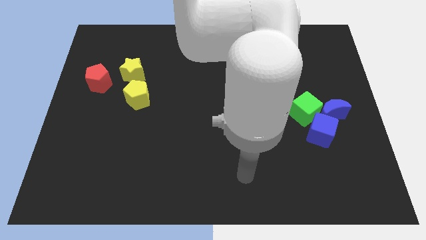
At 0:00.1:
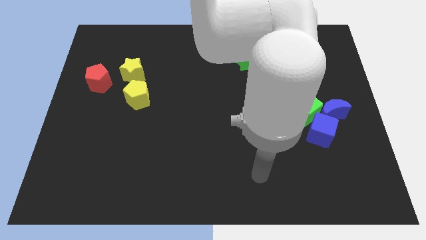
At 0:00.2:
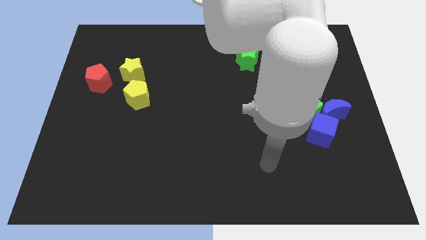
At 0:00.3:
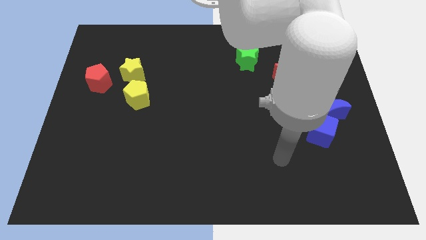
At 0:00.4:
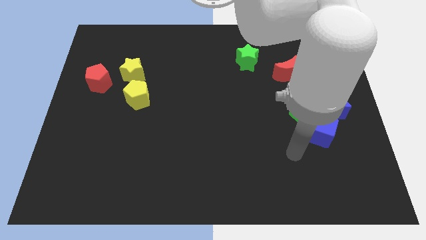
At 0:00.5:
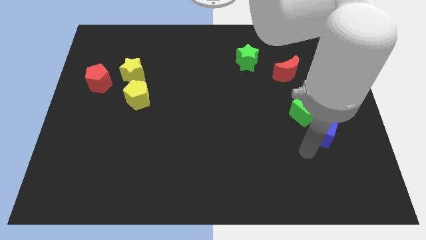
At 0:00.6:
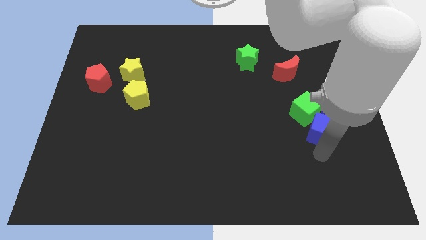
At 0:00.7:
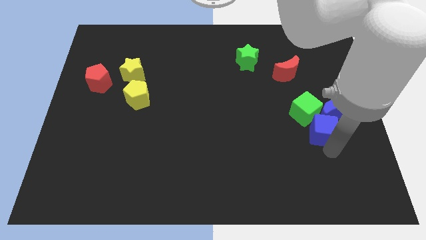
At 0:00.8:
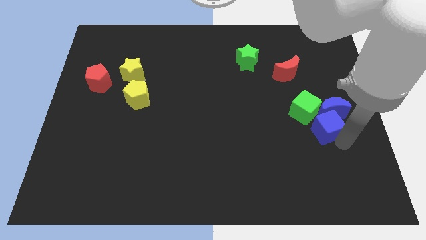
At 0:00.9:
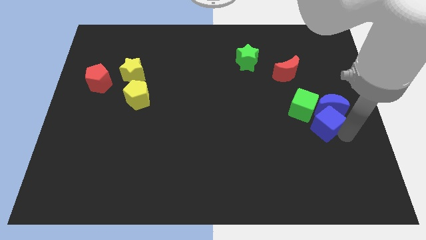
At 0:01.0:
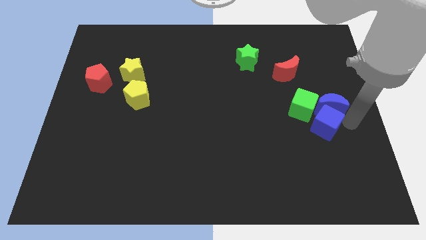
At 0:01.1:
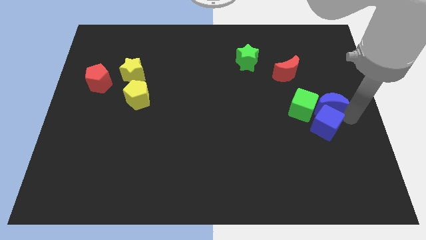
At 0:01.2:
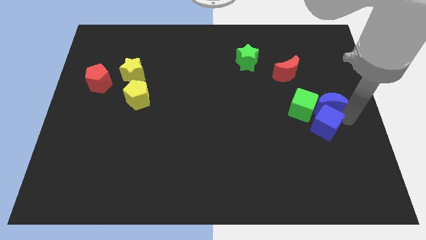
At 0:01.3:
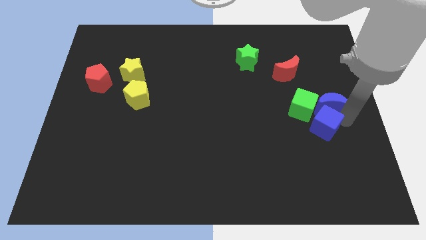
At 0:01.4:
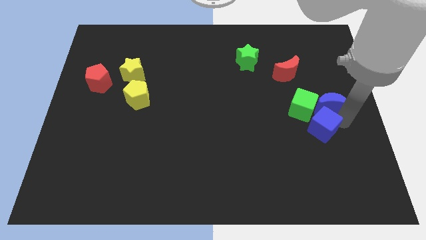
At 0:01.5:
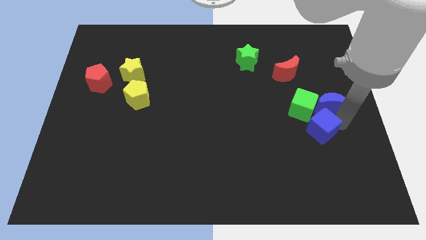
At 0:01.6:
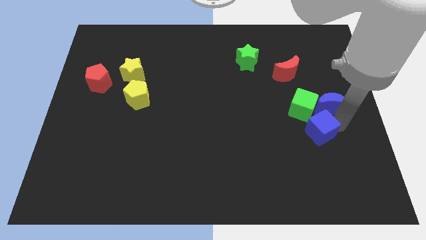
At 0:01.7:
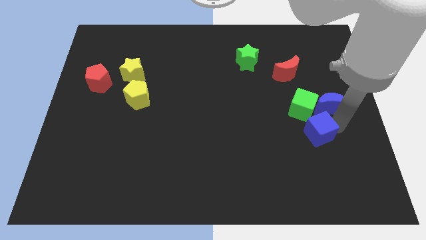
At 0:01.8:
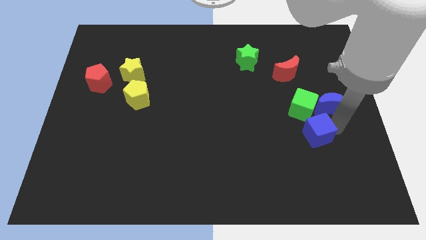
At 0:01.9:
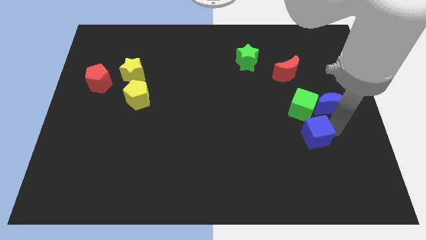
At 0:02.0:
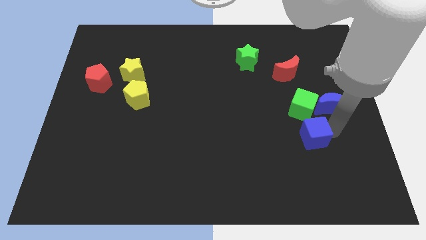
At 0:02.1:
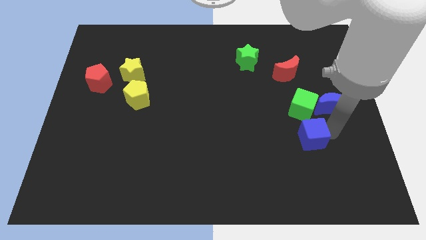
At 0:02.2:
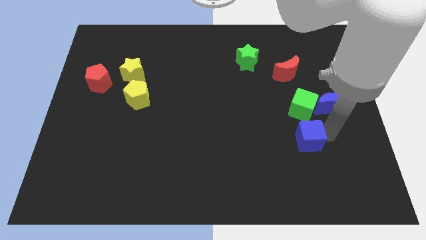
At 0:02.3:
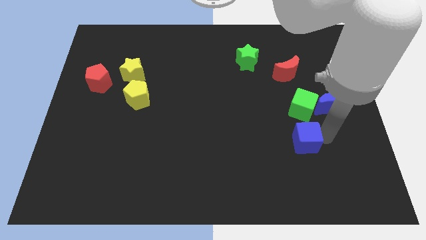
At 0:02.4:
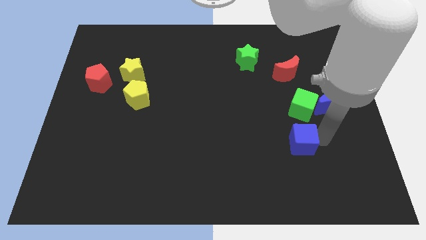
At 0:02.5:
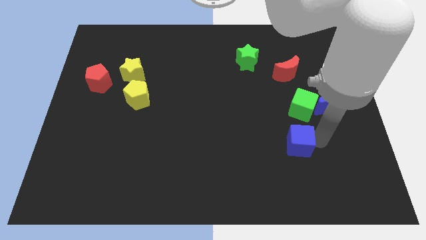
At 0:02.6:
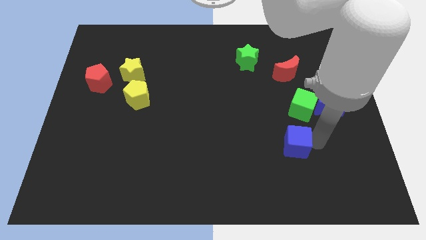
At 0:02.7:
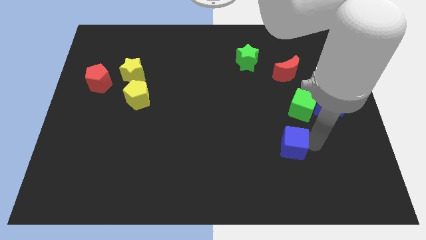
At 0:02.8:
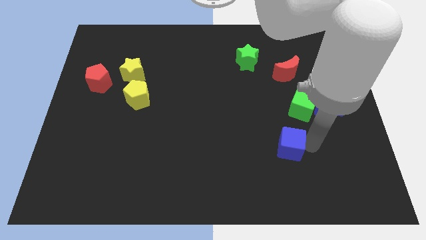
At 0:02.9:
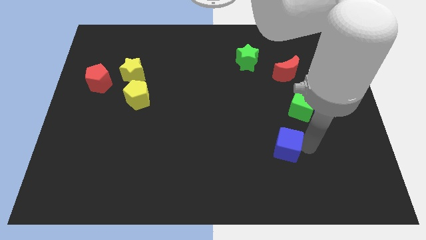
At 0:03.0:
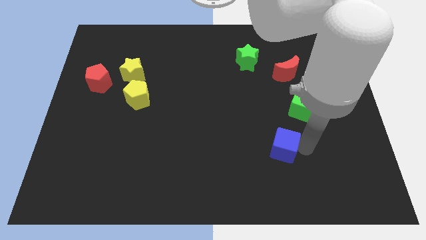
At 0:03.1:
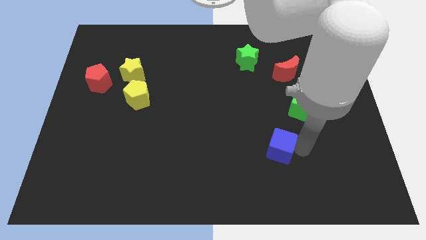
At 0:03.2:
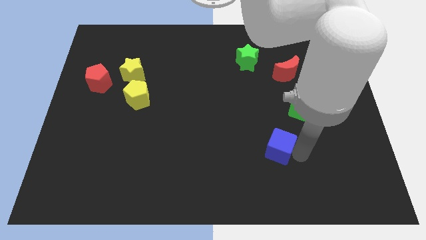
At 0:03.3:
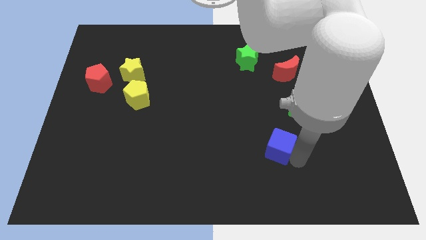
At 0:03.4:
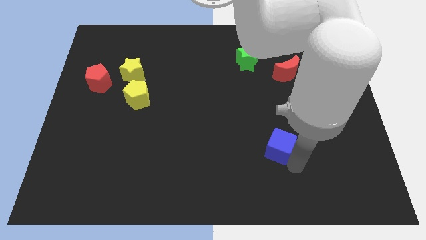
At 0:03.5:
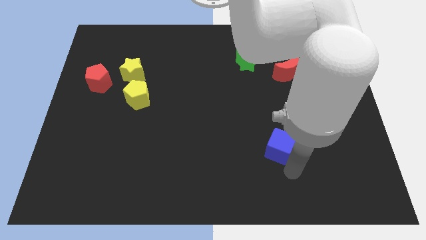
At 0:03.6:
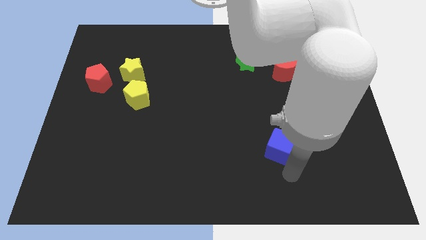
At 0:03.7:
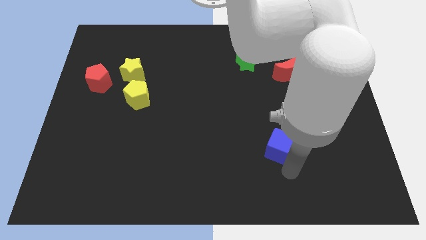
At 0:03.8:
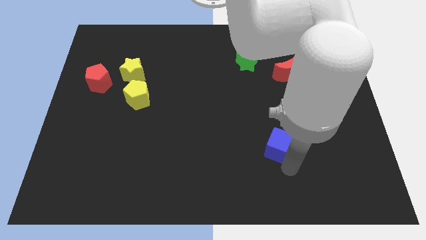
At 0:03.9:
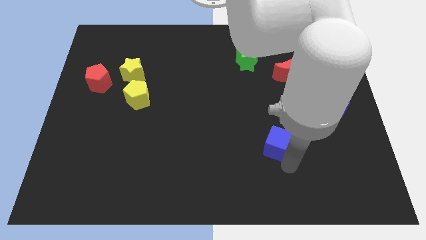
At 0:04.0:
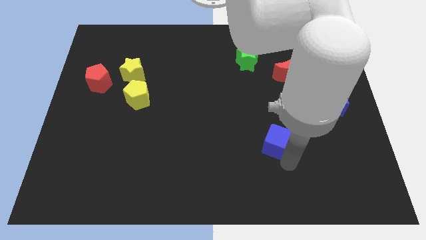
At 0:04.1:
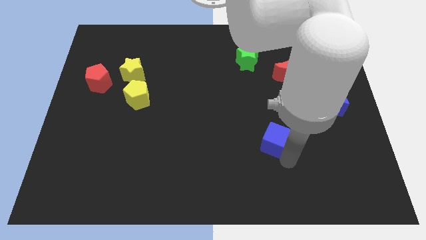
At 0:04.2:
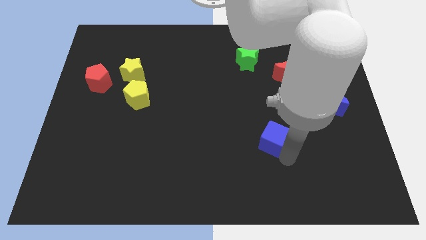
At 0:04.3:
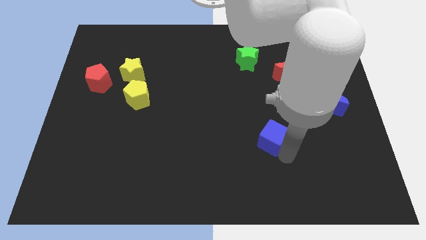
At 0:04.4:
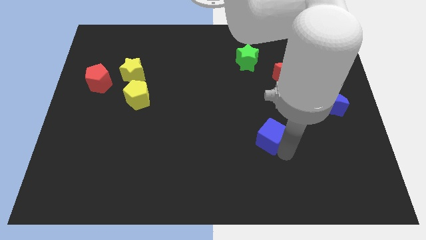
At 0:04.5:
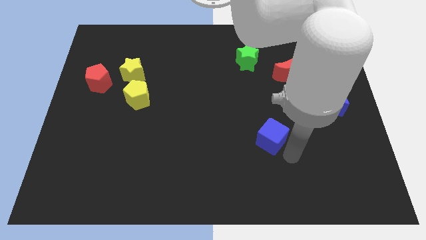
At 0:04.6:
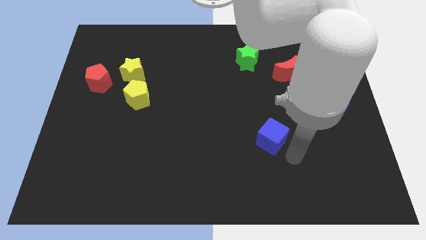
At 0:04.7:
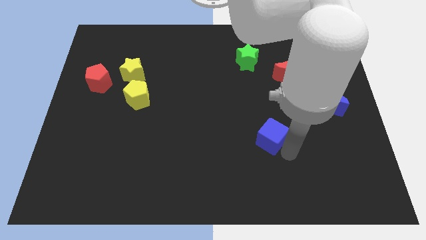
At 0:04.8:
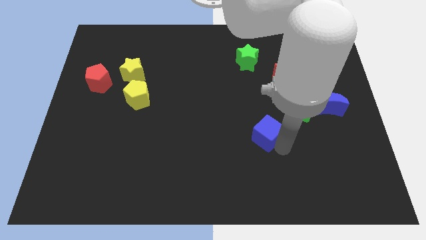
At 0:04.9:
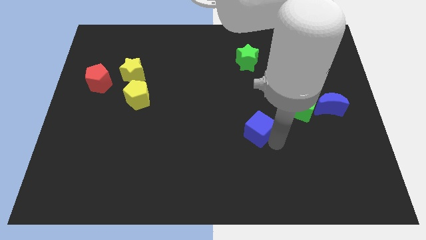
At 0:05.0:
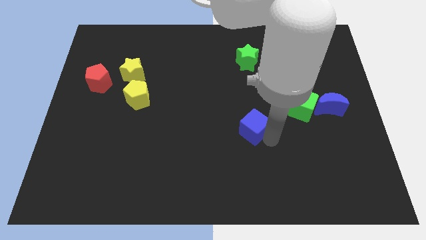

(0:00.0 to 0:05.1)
slide the blue cube to the center

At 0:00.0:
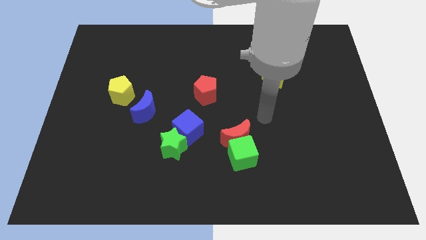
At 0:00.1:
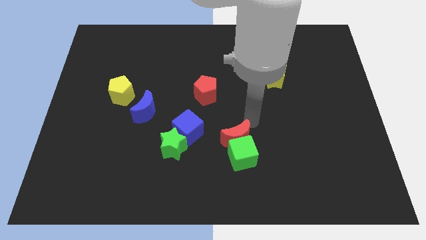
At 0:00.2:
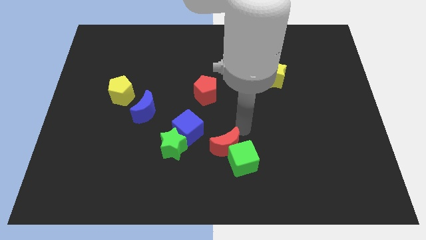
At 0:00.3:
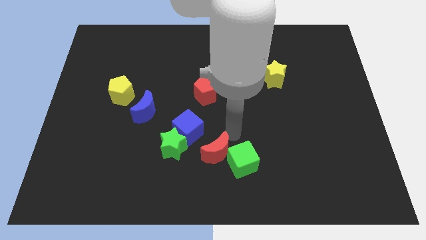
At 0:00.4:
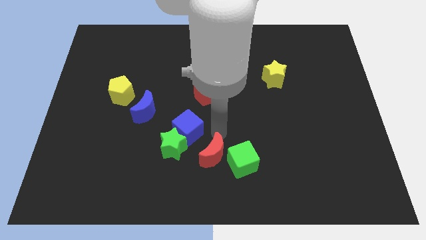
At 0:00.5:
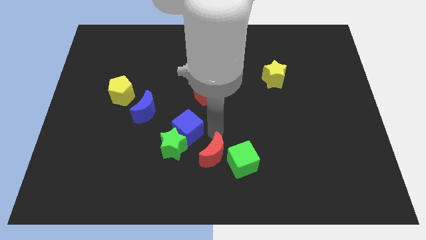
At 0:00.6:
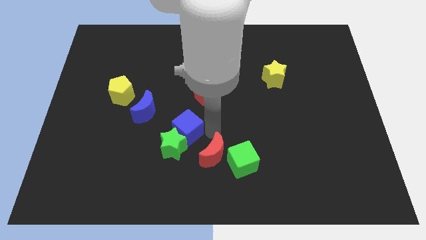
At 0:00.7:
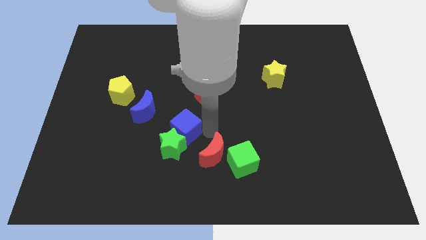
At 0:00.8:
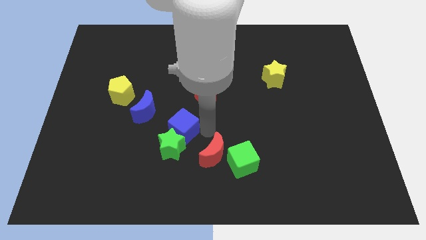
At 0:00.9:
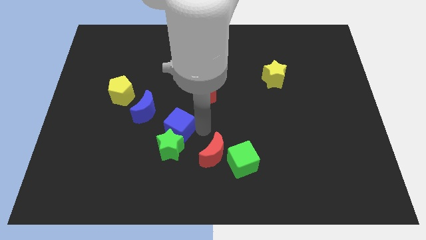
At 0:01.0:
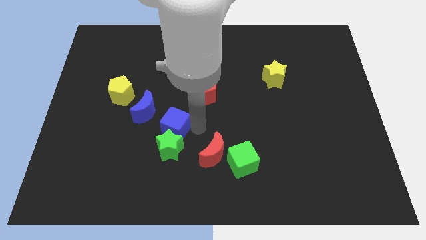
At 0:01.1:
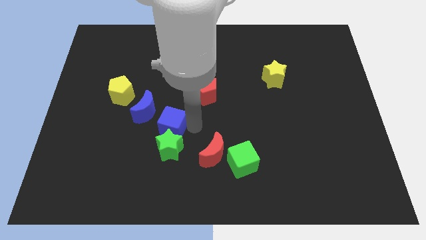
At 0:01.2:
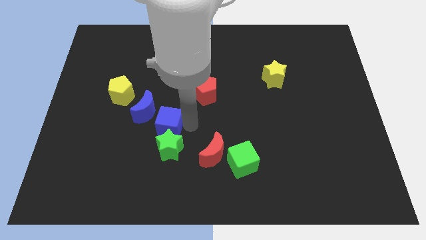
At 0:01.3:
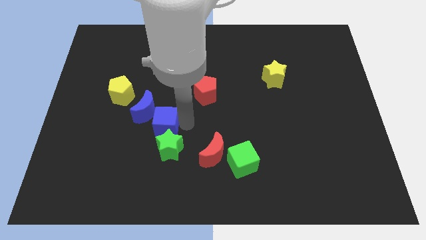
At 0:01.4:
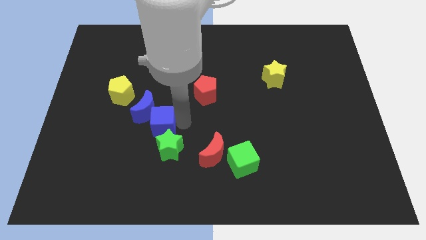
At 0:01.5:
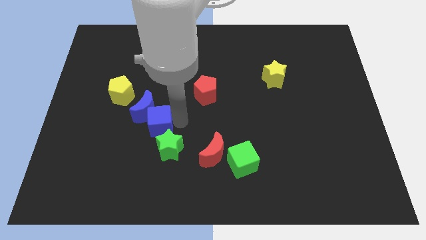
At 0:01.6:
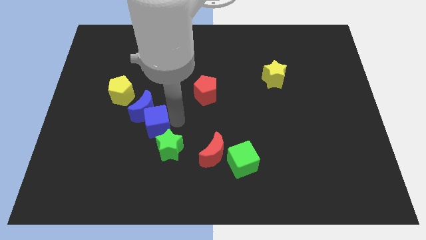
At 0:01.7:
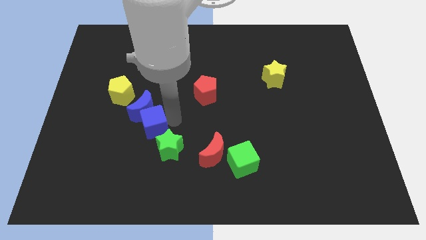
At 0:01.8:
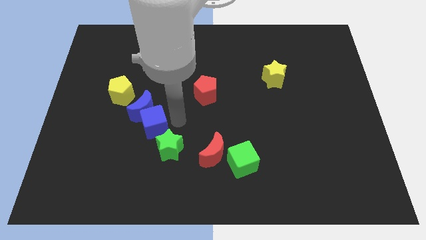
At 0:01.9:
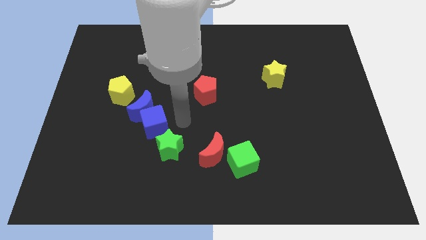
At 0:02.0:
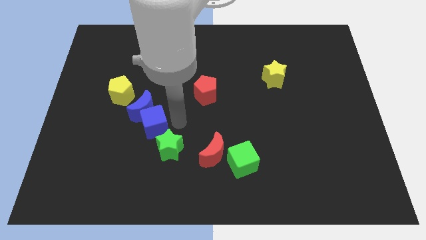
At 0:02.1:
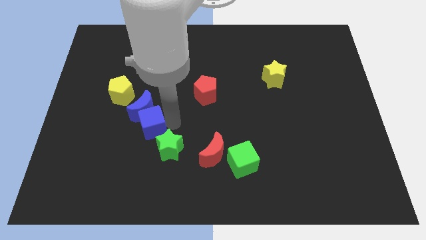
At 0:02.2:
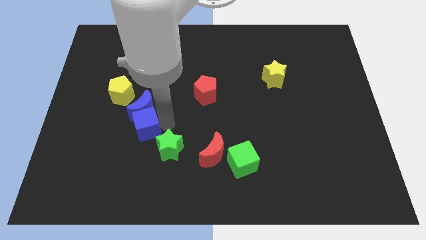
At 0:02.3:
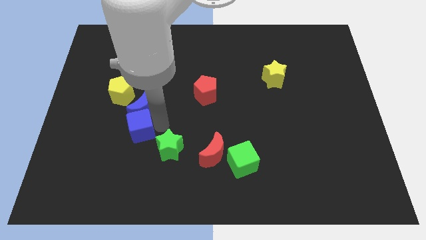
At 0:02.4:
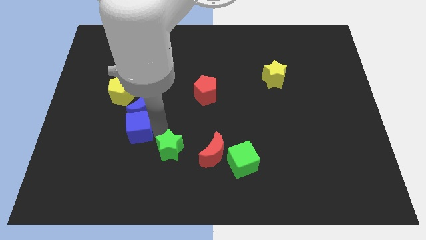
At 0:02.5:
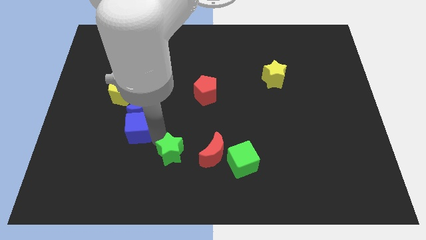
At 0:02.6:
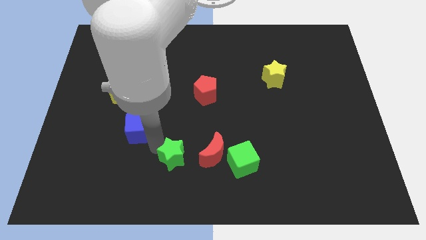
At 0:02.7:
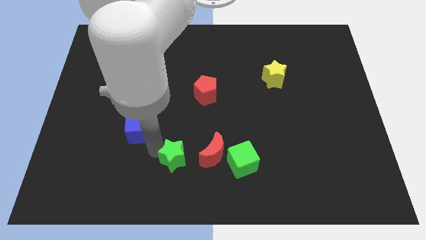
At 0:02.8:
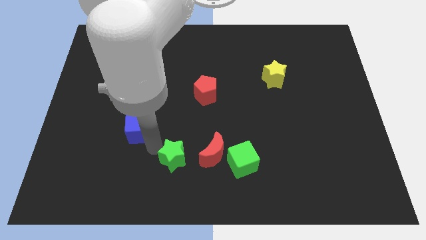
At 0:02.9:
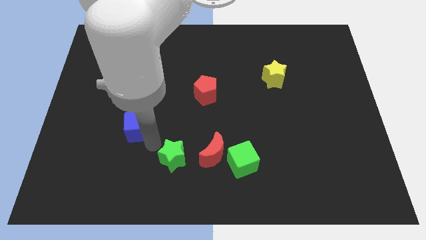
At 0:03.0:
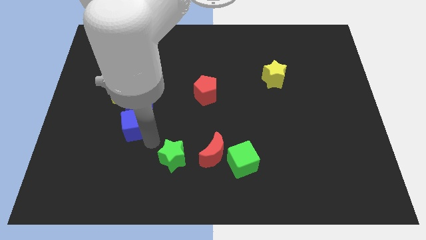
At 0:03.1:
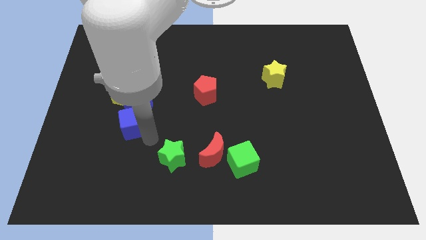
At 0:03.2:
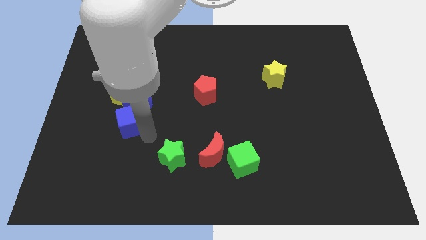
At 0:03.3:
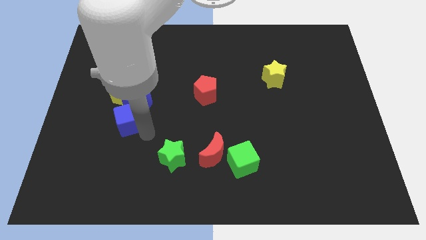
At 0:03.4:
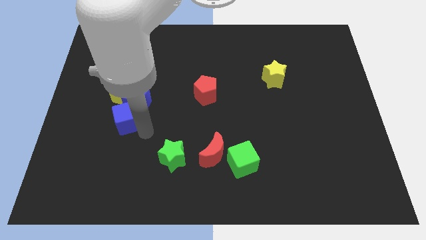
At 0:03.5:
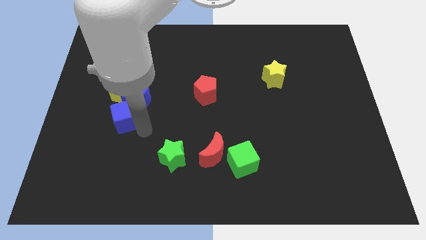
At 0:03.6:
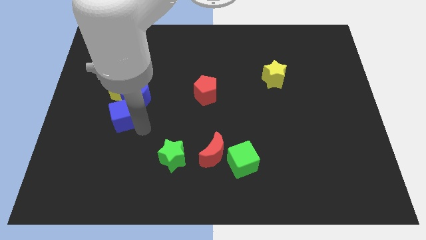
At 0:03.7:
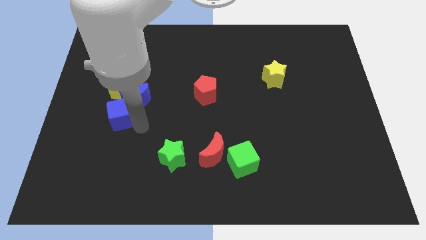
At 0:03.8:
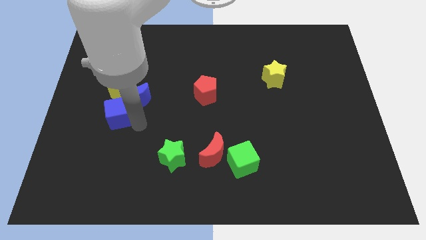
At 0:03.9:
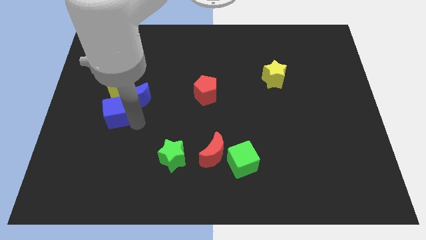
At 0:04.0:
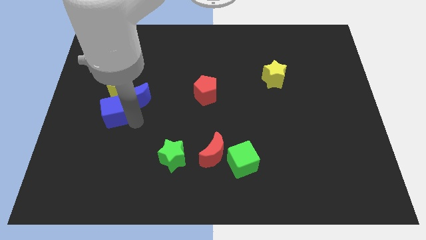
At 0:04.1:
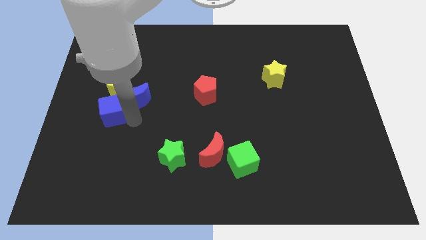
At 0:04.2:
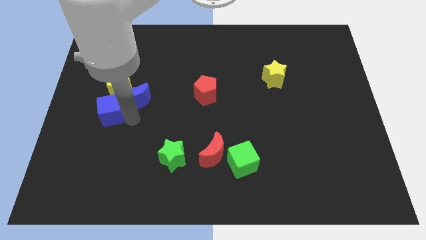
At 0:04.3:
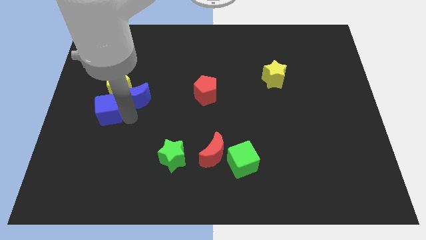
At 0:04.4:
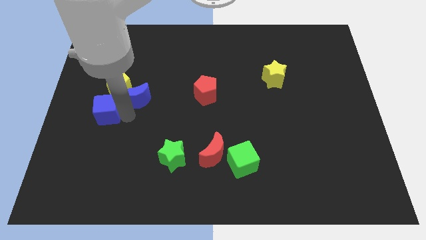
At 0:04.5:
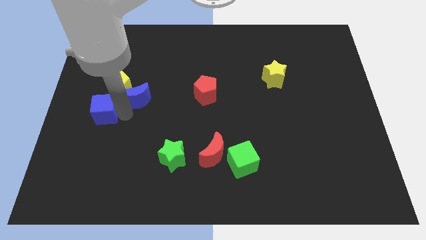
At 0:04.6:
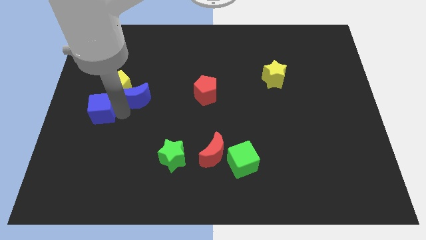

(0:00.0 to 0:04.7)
push the blue cube to the left side
